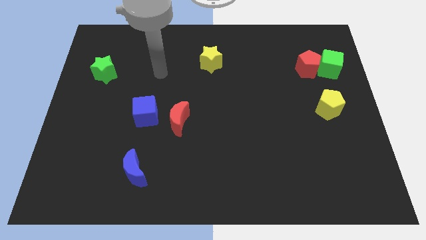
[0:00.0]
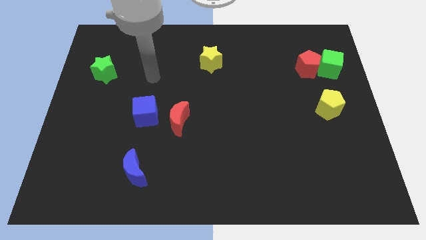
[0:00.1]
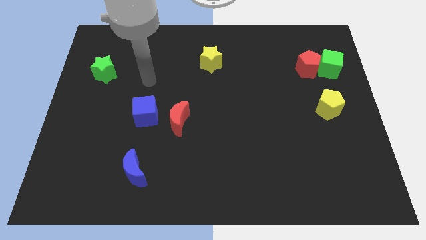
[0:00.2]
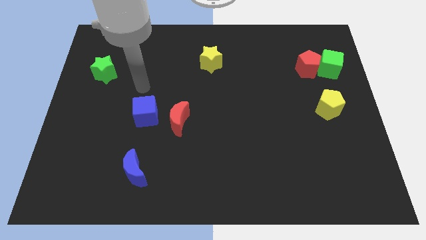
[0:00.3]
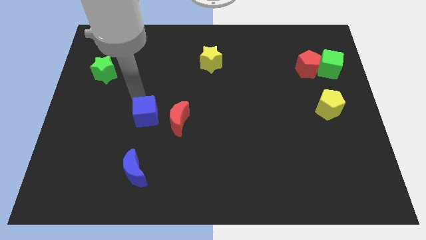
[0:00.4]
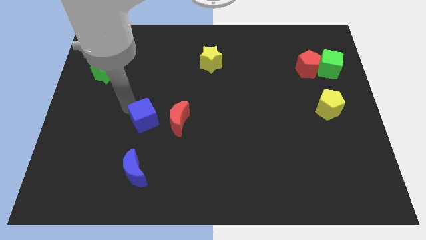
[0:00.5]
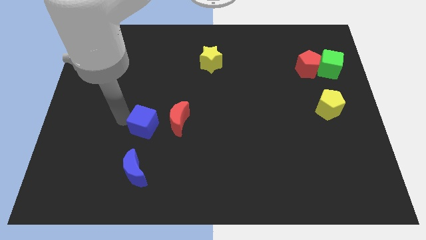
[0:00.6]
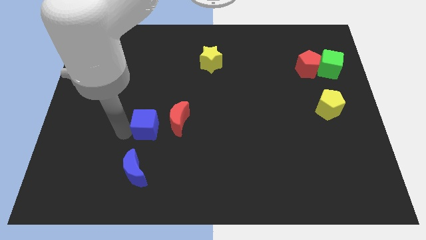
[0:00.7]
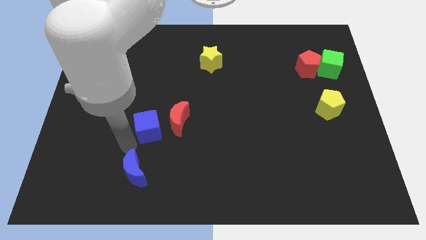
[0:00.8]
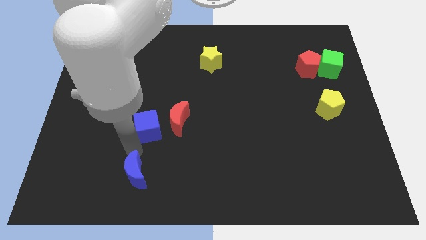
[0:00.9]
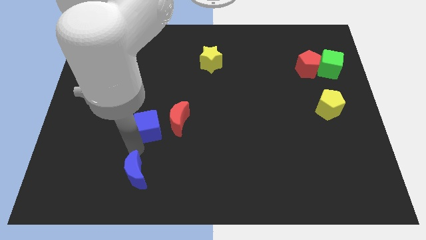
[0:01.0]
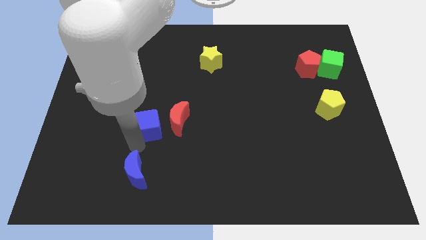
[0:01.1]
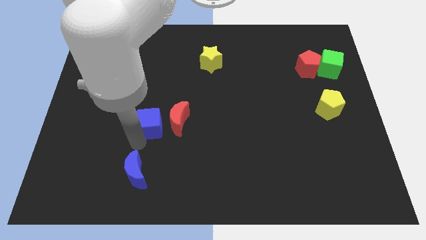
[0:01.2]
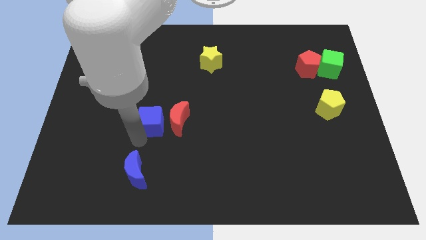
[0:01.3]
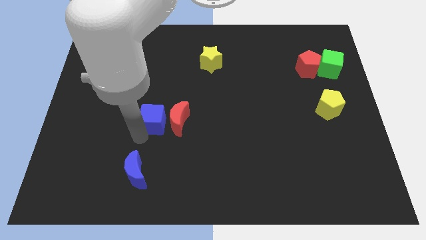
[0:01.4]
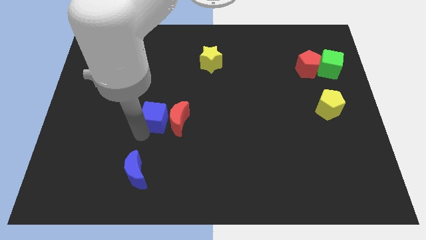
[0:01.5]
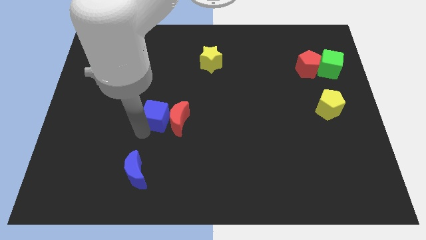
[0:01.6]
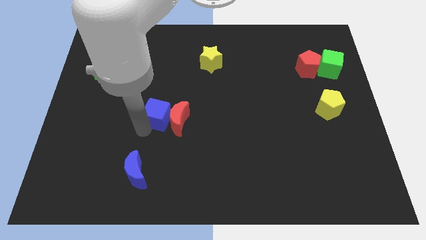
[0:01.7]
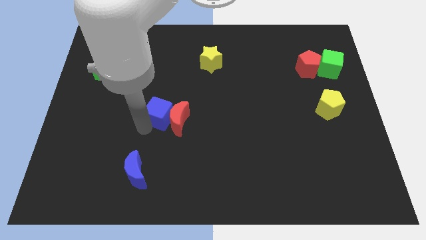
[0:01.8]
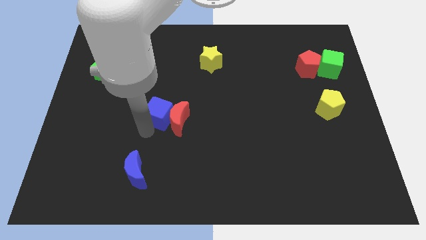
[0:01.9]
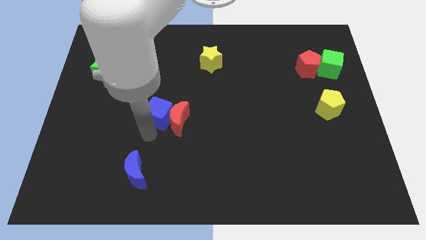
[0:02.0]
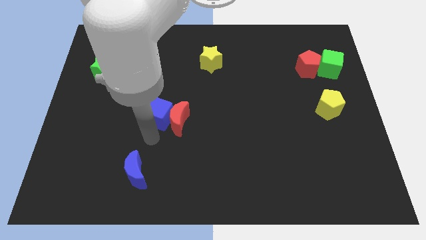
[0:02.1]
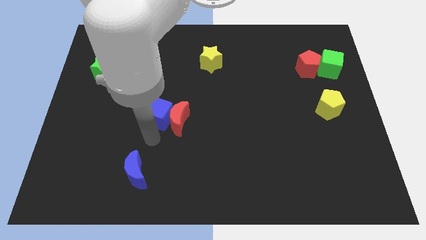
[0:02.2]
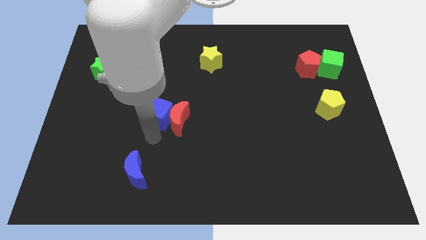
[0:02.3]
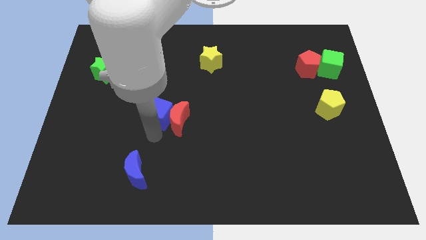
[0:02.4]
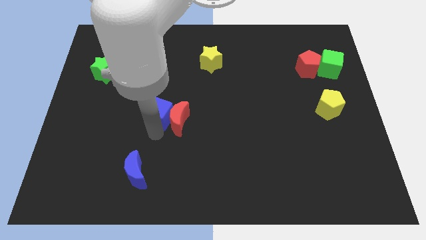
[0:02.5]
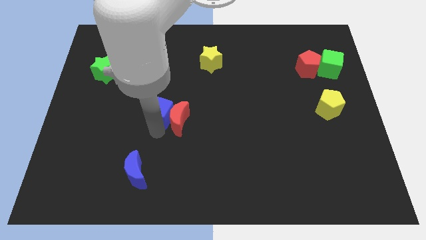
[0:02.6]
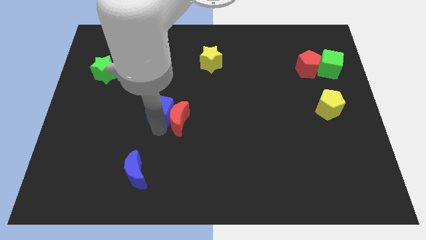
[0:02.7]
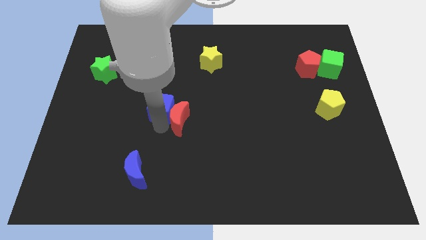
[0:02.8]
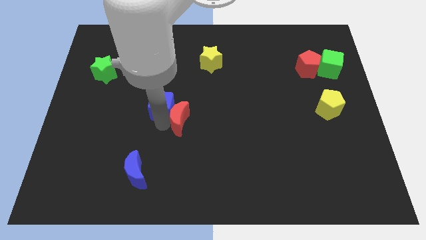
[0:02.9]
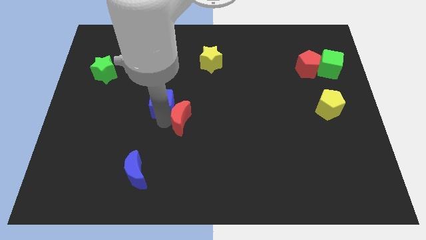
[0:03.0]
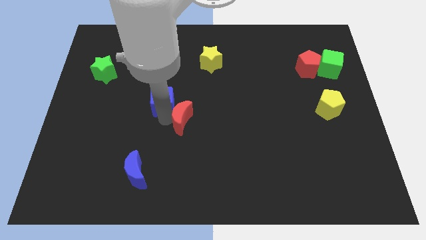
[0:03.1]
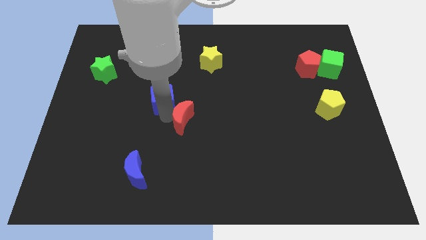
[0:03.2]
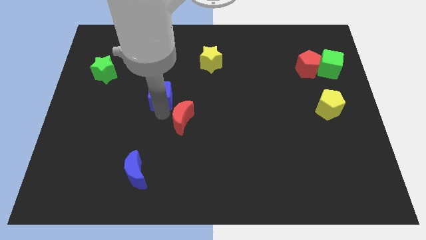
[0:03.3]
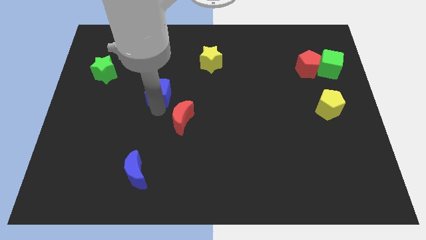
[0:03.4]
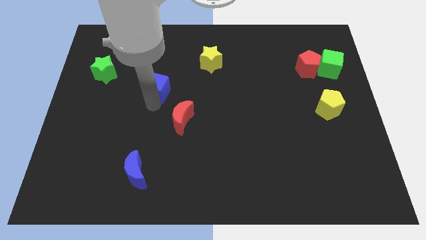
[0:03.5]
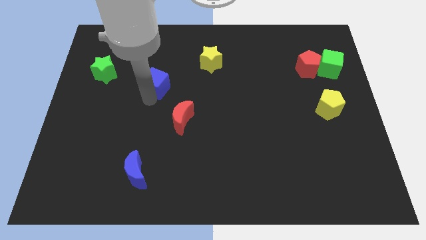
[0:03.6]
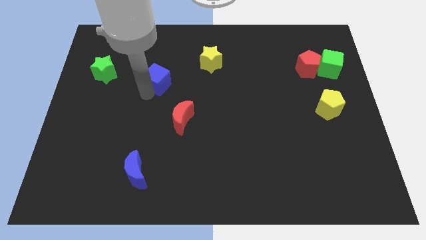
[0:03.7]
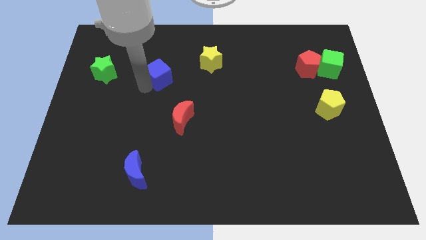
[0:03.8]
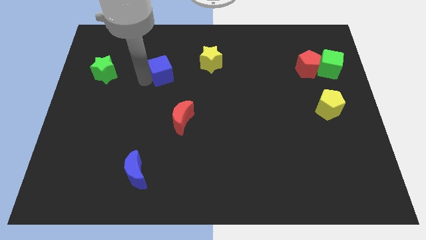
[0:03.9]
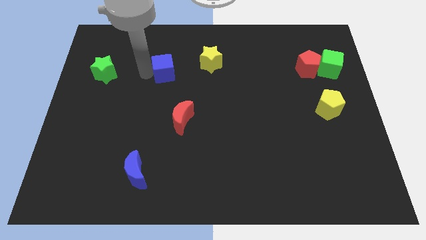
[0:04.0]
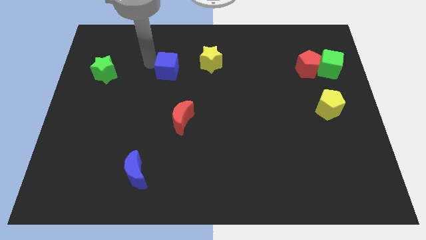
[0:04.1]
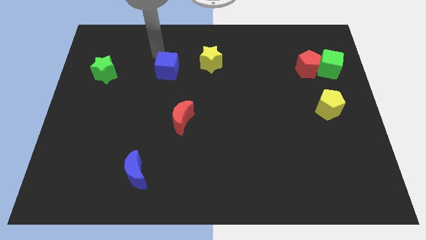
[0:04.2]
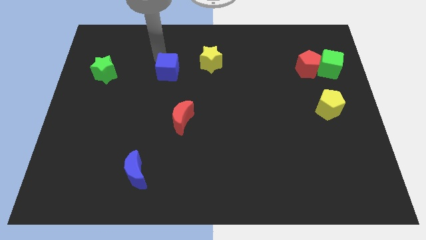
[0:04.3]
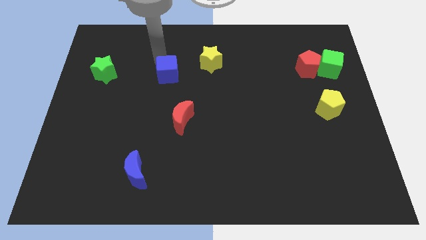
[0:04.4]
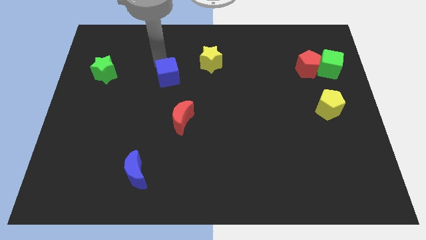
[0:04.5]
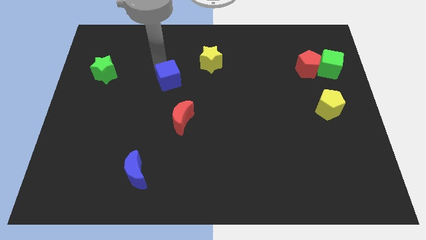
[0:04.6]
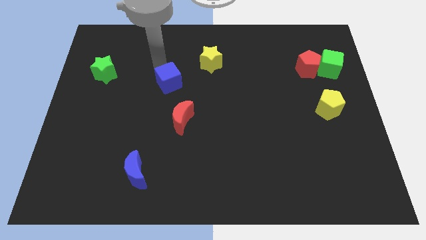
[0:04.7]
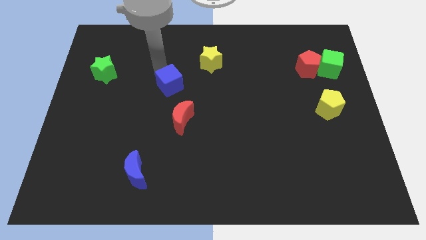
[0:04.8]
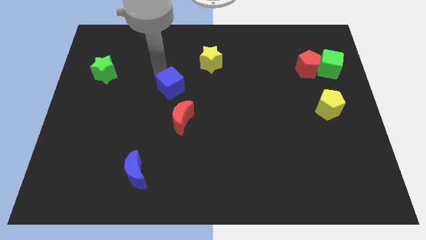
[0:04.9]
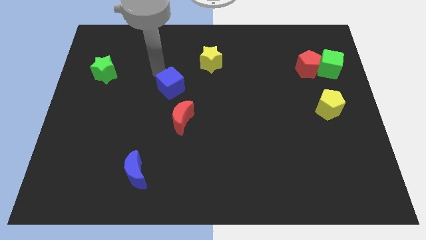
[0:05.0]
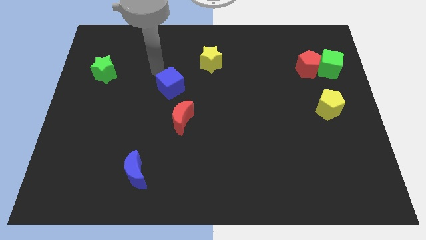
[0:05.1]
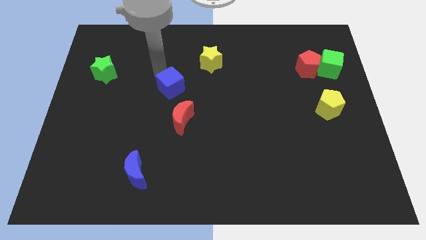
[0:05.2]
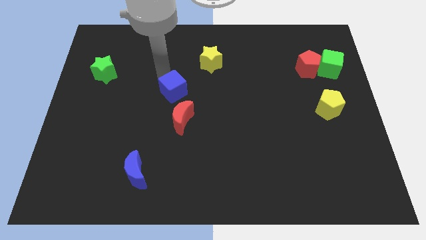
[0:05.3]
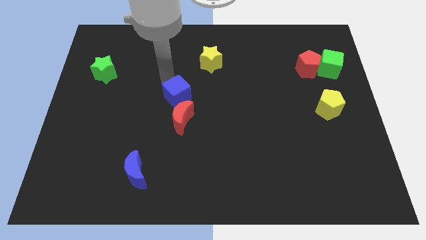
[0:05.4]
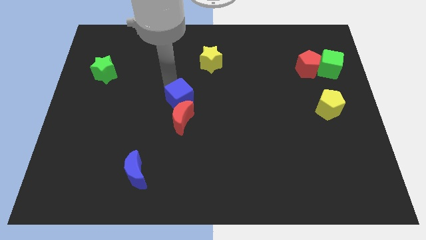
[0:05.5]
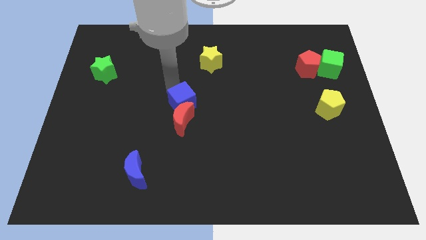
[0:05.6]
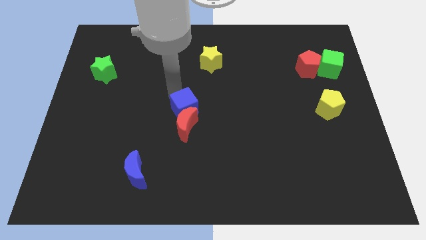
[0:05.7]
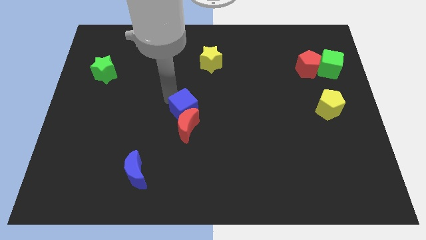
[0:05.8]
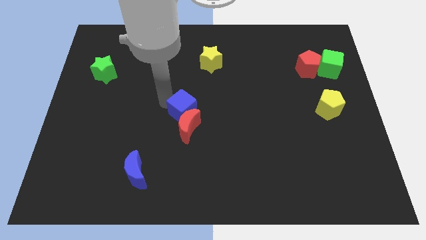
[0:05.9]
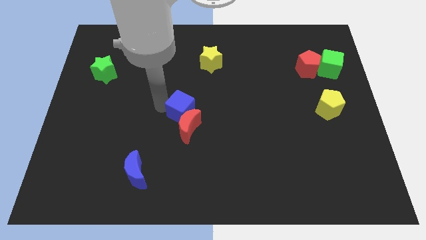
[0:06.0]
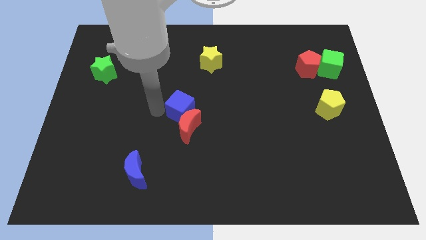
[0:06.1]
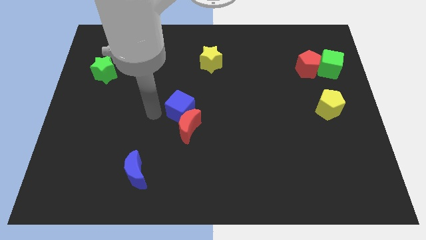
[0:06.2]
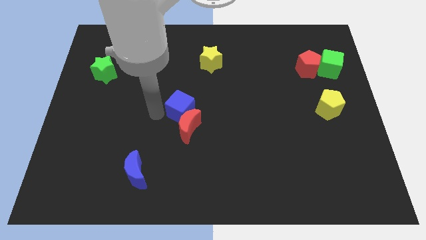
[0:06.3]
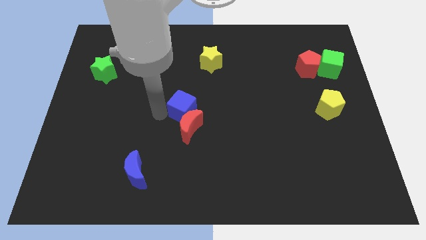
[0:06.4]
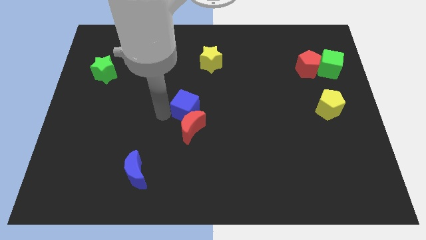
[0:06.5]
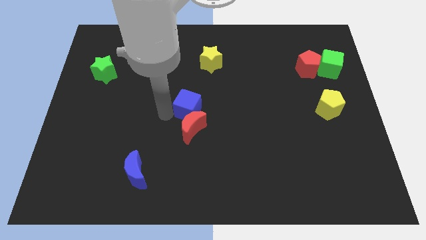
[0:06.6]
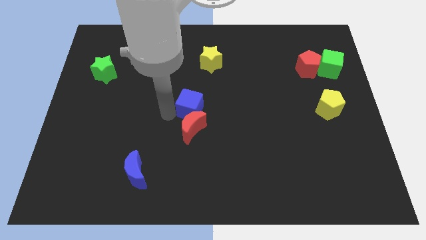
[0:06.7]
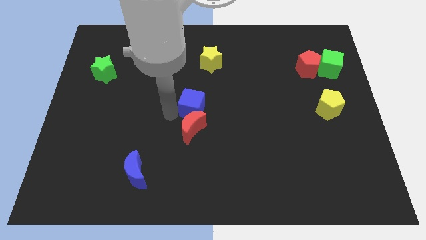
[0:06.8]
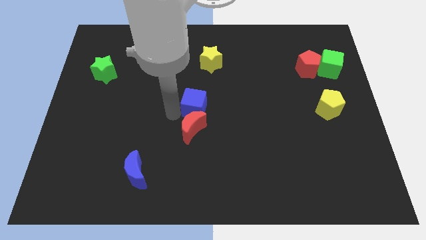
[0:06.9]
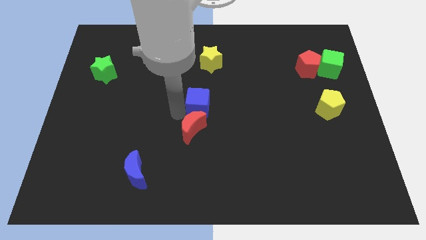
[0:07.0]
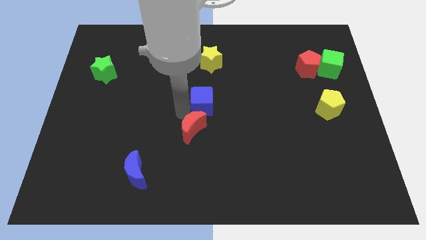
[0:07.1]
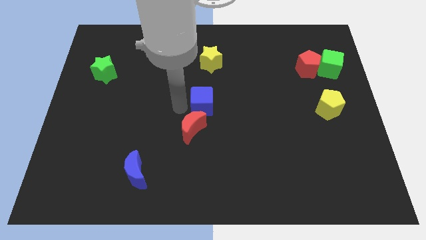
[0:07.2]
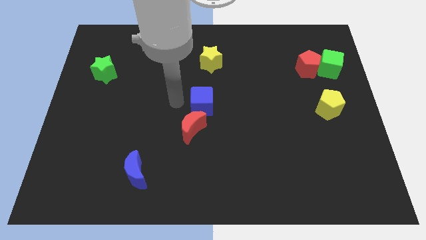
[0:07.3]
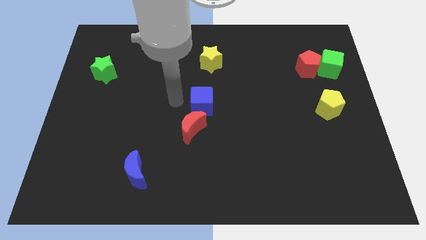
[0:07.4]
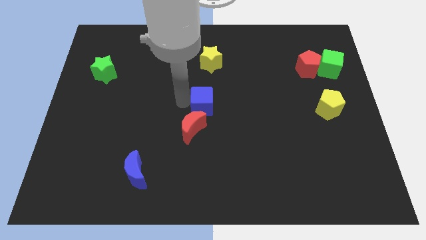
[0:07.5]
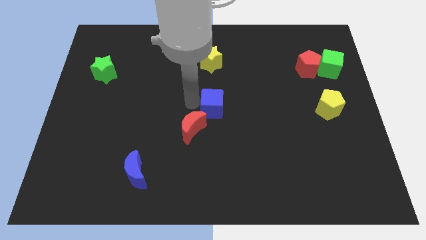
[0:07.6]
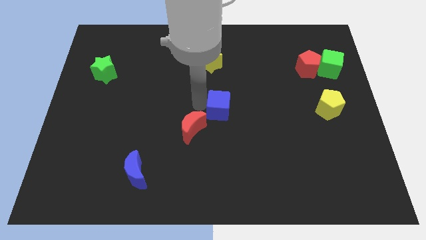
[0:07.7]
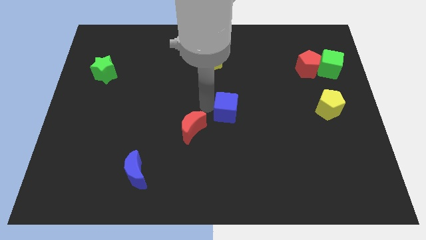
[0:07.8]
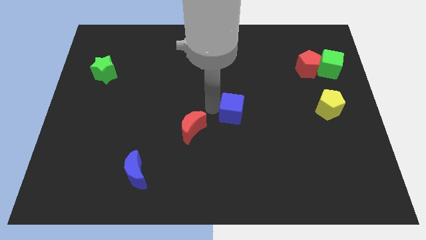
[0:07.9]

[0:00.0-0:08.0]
push the blue cube to the right
